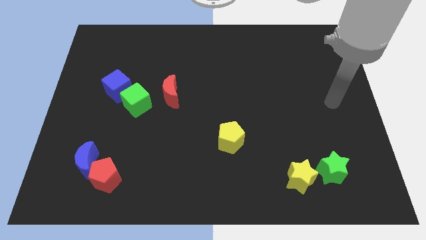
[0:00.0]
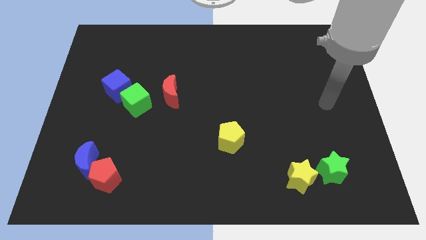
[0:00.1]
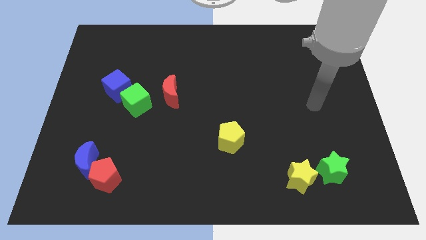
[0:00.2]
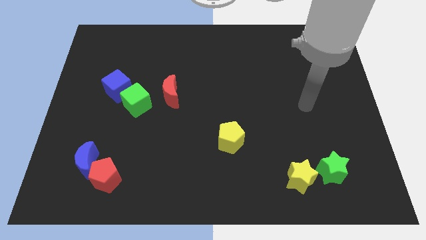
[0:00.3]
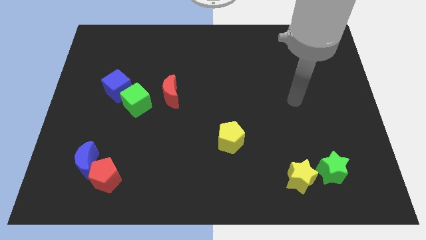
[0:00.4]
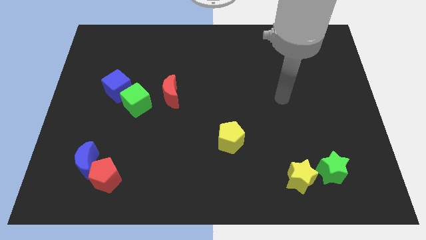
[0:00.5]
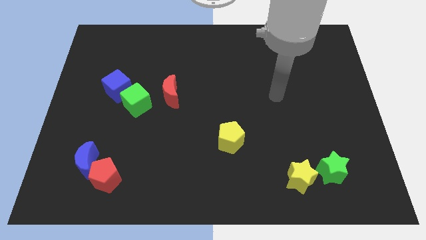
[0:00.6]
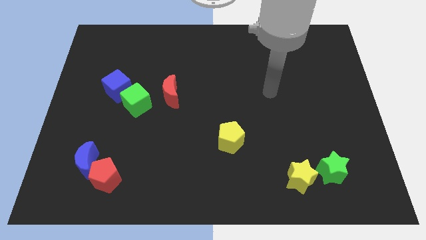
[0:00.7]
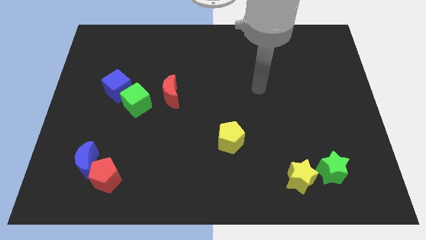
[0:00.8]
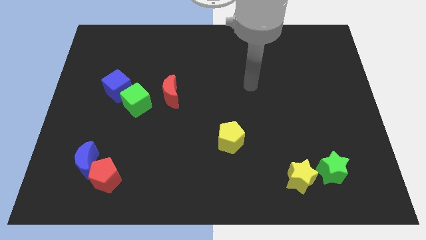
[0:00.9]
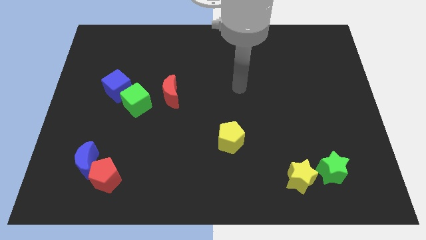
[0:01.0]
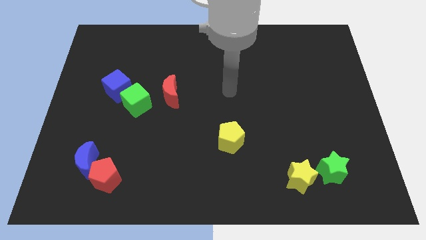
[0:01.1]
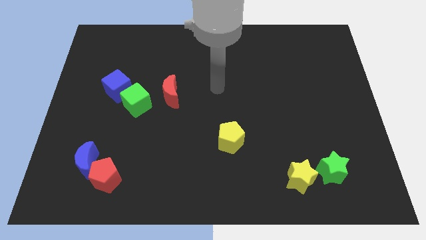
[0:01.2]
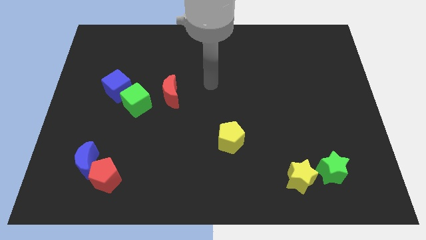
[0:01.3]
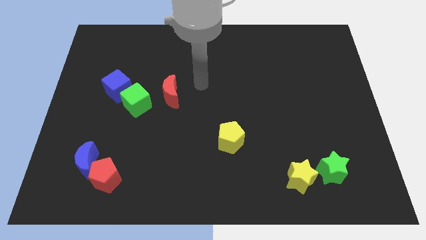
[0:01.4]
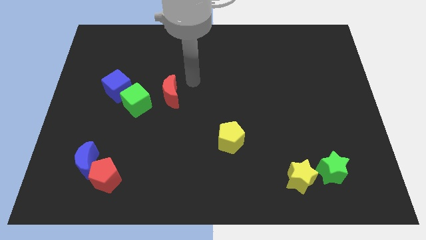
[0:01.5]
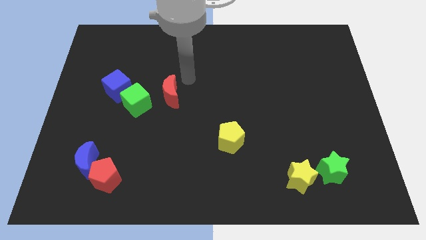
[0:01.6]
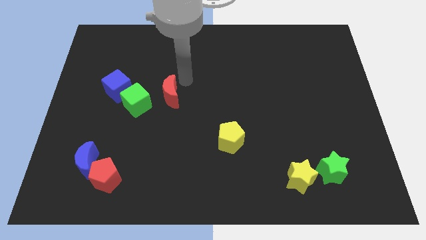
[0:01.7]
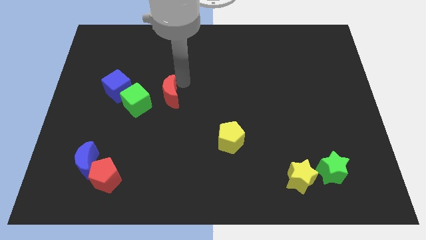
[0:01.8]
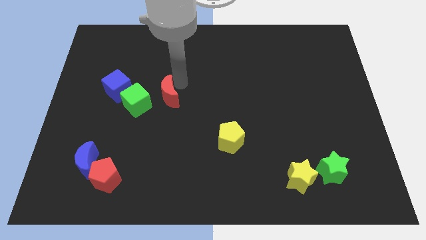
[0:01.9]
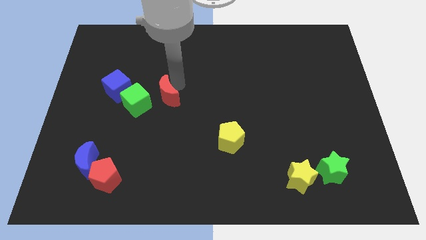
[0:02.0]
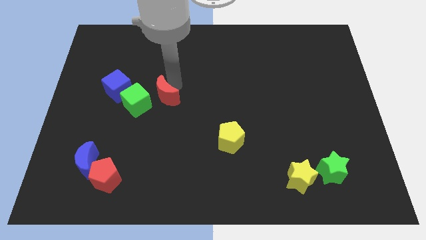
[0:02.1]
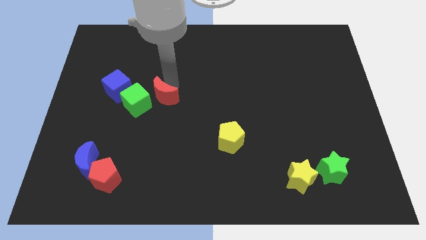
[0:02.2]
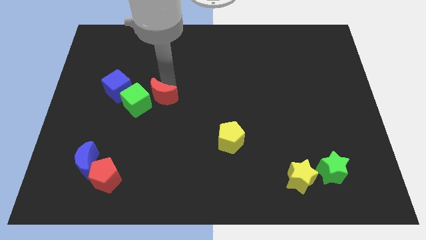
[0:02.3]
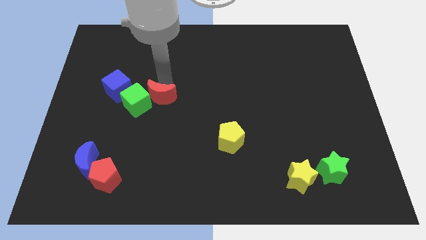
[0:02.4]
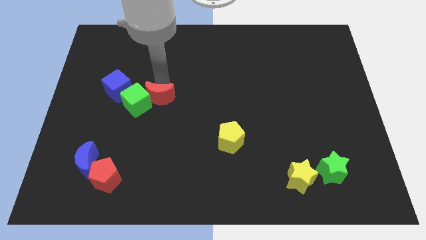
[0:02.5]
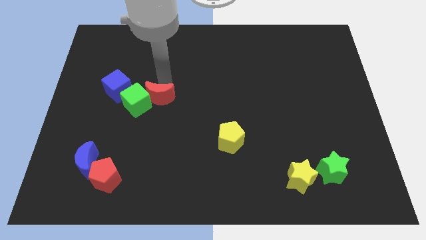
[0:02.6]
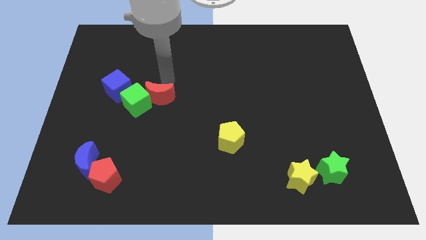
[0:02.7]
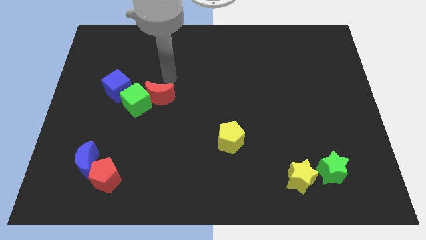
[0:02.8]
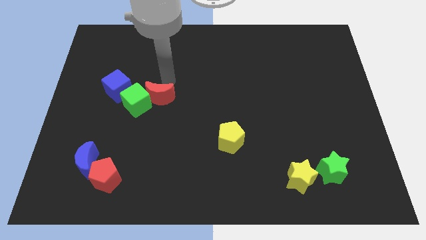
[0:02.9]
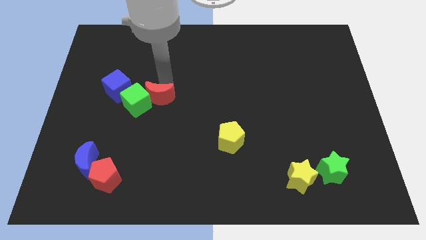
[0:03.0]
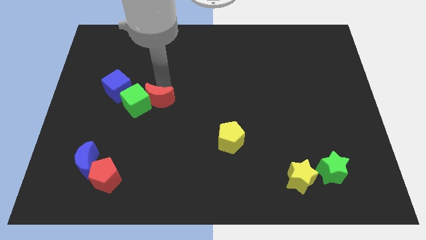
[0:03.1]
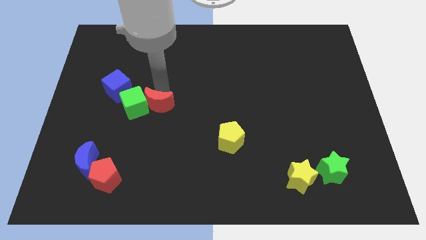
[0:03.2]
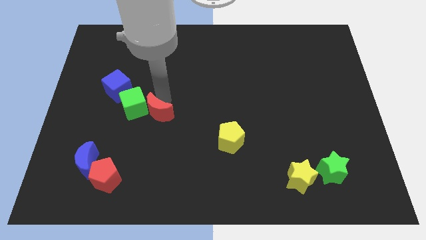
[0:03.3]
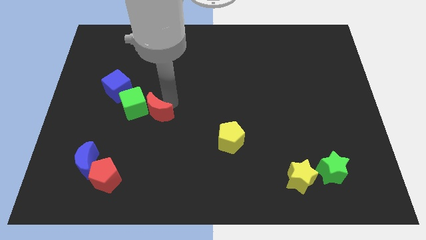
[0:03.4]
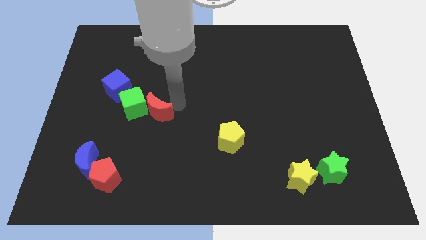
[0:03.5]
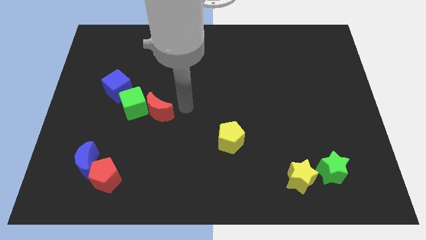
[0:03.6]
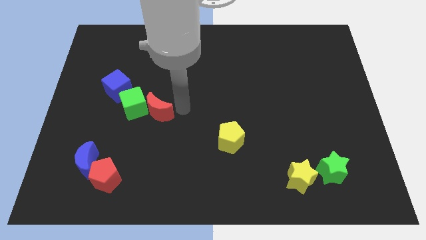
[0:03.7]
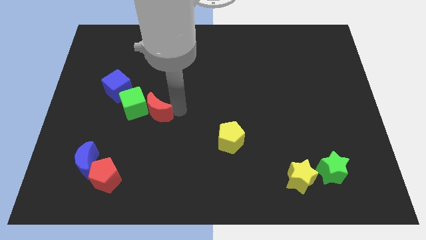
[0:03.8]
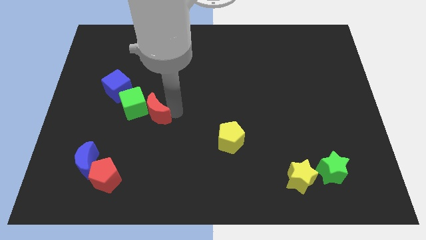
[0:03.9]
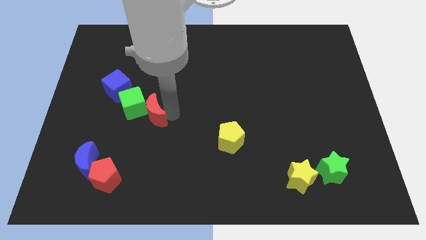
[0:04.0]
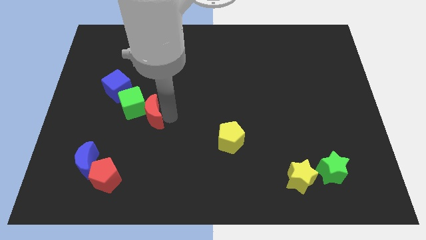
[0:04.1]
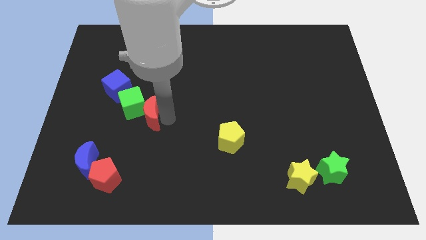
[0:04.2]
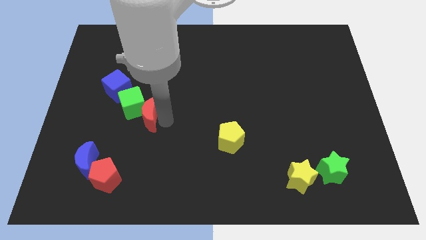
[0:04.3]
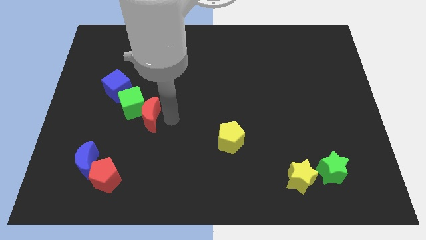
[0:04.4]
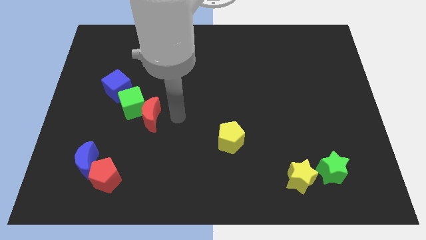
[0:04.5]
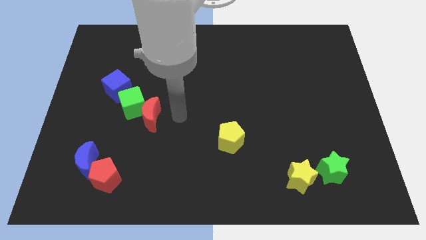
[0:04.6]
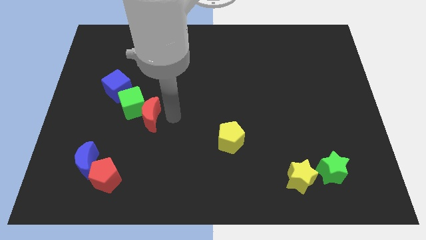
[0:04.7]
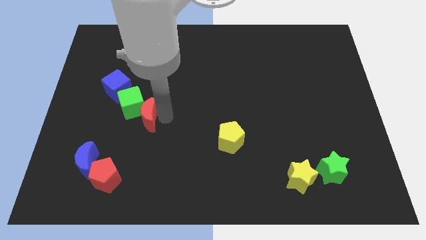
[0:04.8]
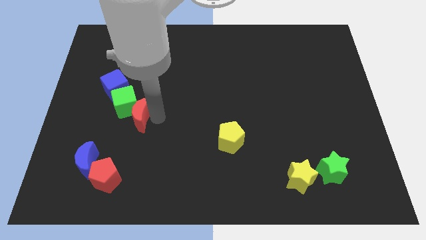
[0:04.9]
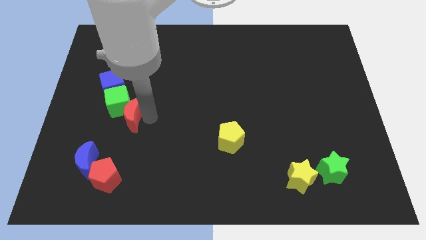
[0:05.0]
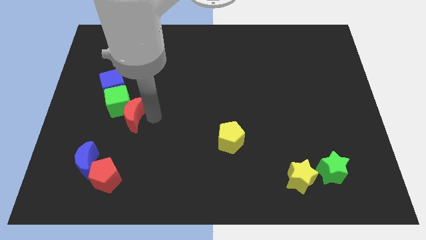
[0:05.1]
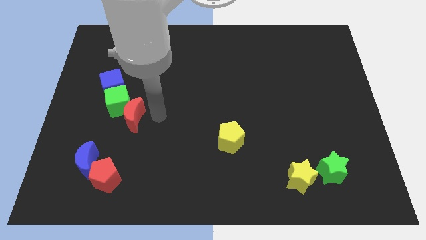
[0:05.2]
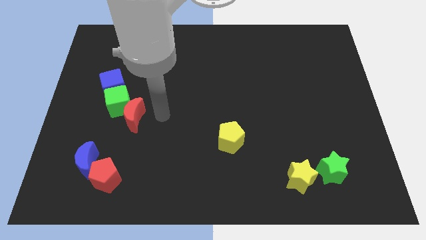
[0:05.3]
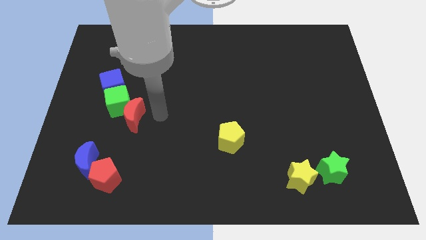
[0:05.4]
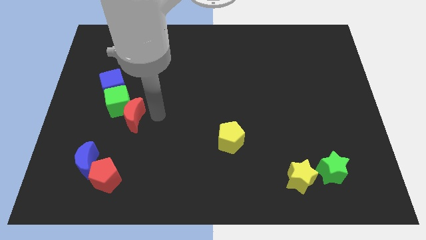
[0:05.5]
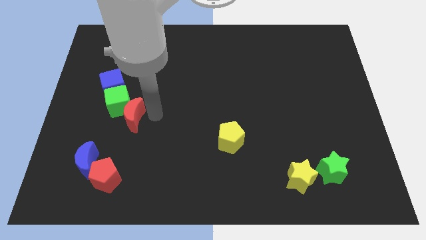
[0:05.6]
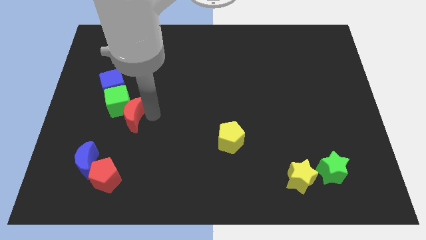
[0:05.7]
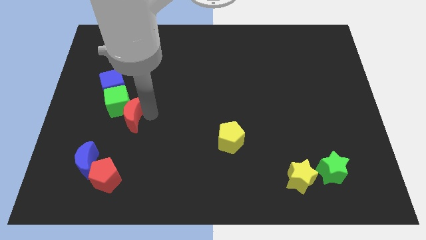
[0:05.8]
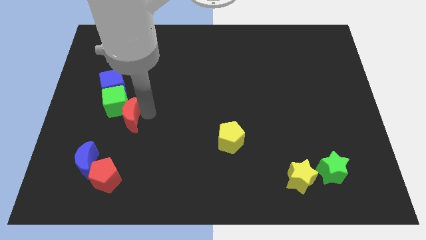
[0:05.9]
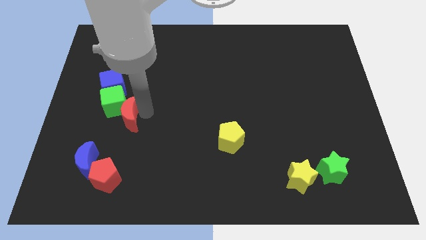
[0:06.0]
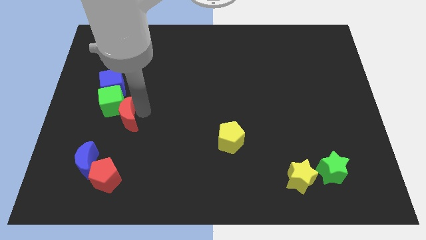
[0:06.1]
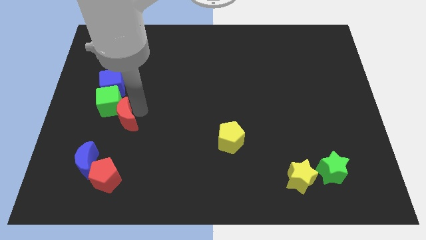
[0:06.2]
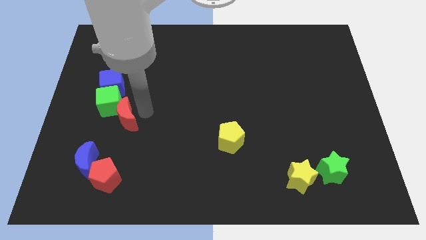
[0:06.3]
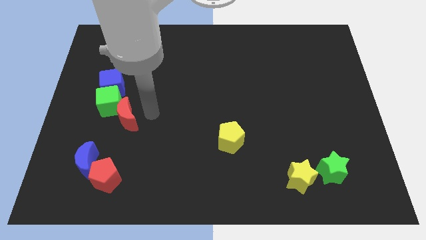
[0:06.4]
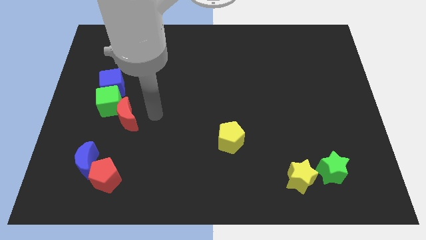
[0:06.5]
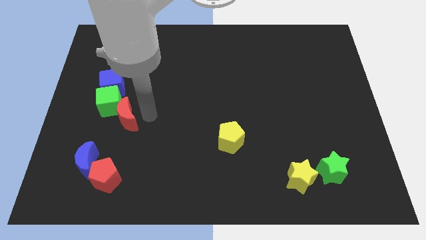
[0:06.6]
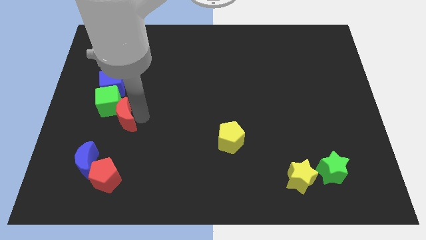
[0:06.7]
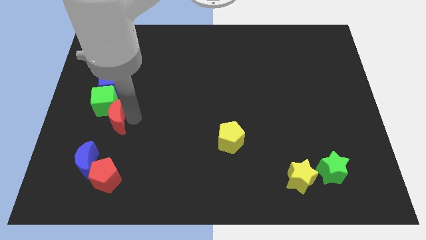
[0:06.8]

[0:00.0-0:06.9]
slide the red moon to the top of the blue moon
